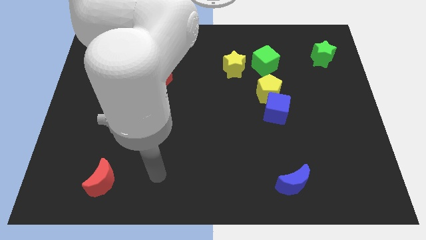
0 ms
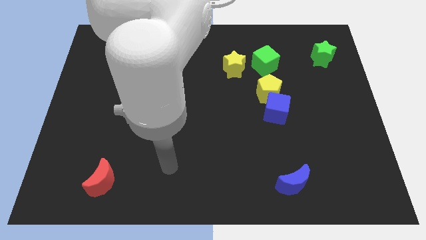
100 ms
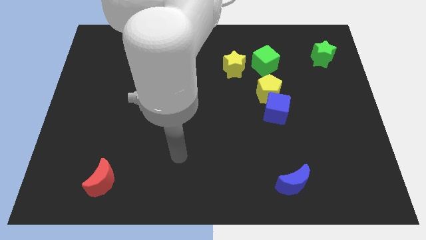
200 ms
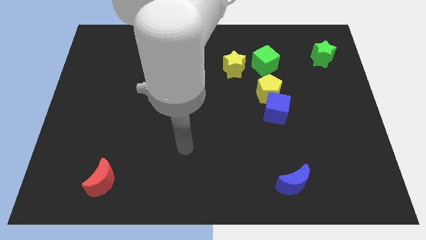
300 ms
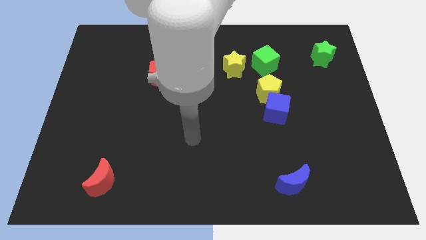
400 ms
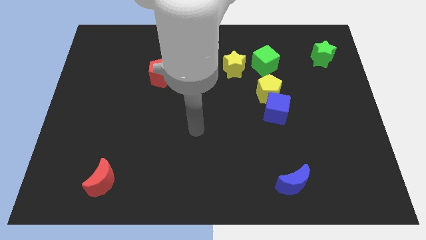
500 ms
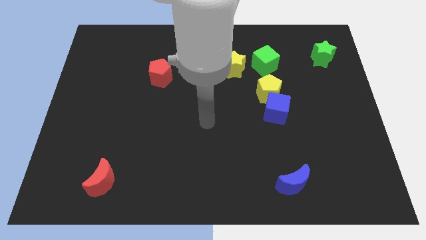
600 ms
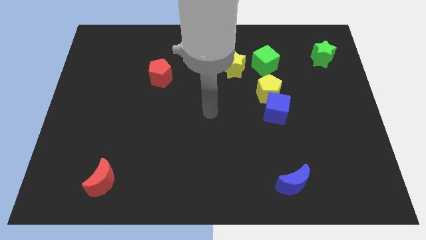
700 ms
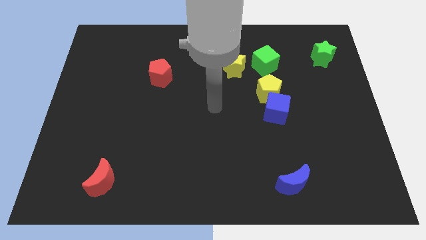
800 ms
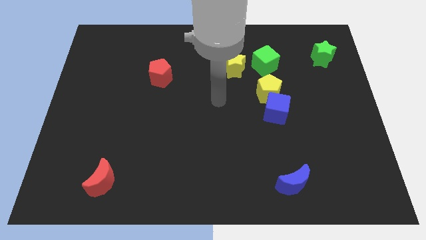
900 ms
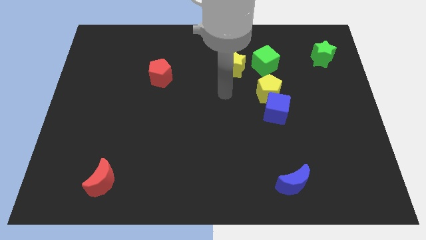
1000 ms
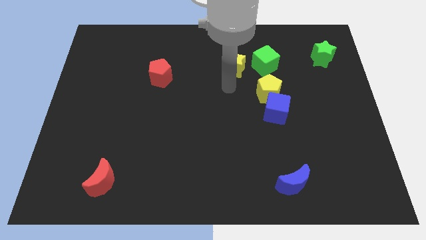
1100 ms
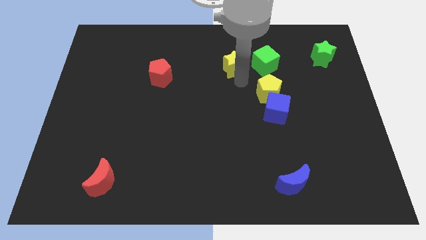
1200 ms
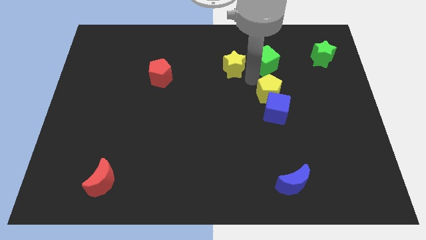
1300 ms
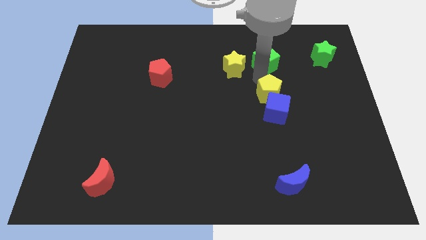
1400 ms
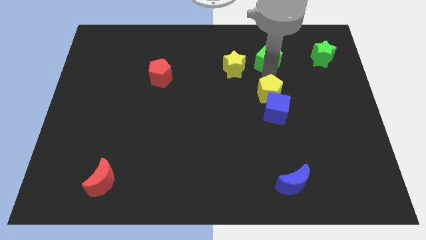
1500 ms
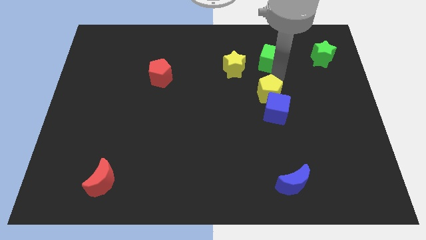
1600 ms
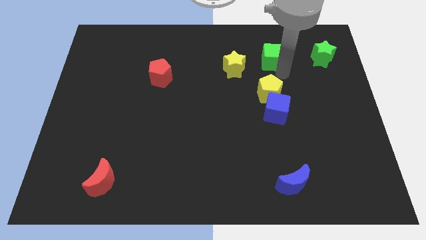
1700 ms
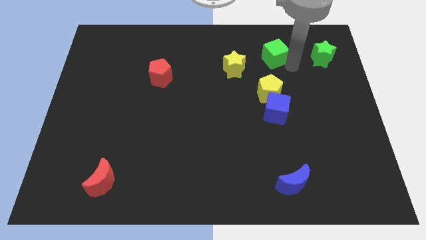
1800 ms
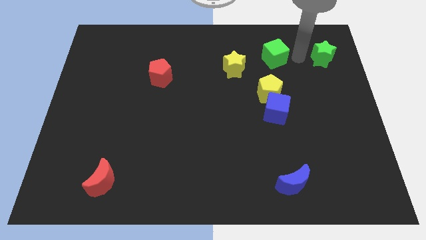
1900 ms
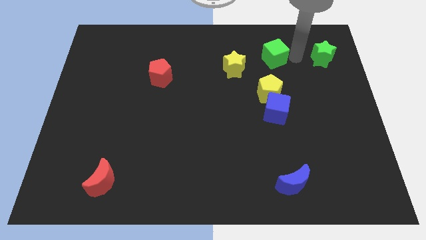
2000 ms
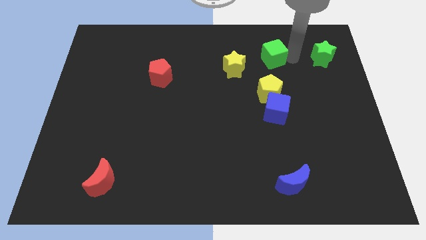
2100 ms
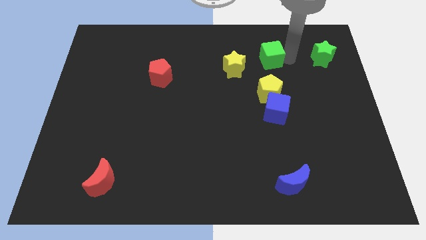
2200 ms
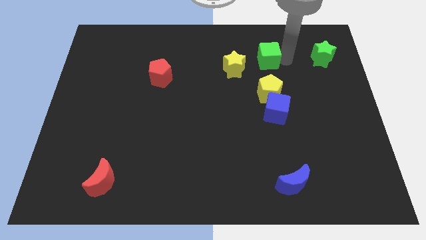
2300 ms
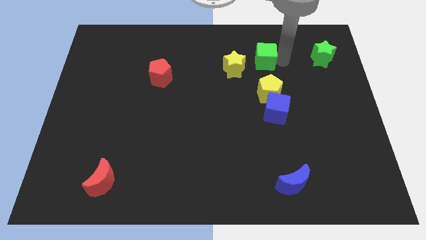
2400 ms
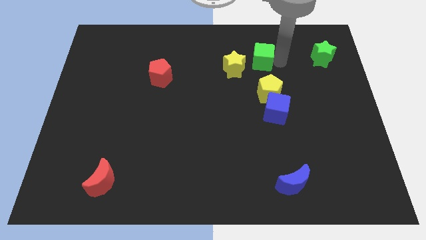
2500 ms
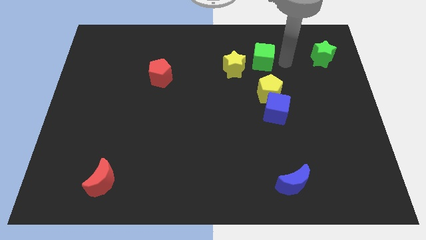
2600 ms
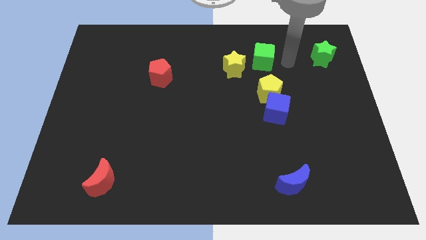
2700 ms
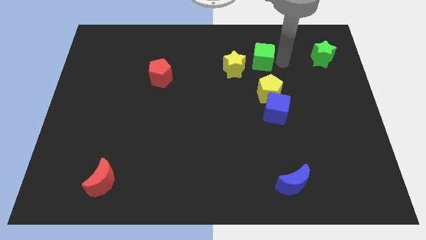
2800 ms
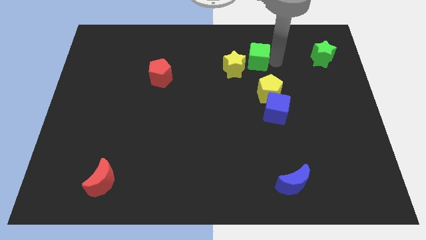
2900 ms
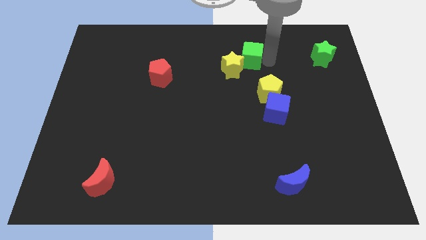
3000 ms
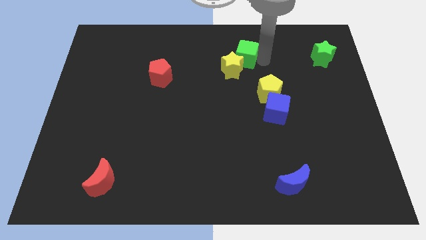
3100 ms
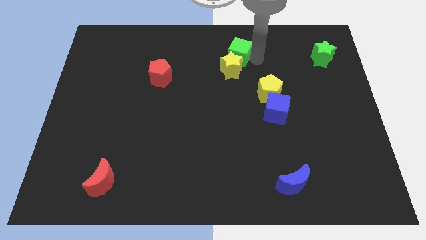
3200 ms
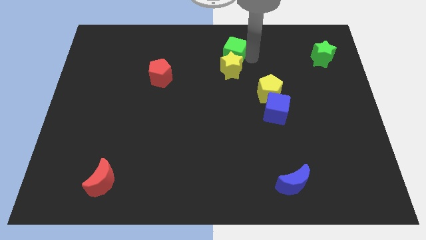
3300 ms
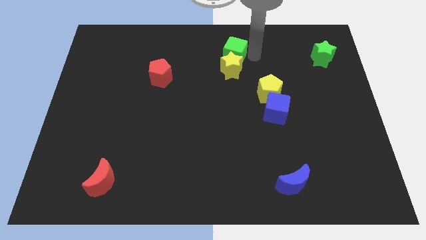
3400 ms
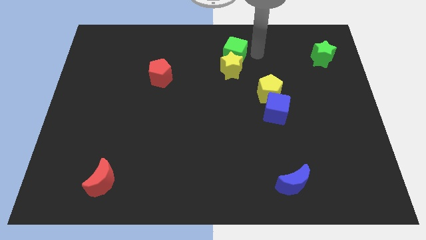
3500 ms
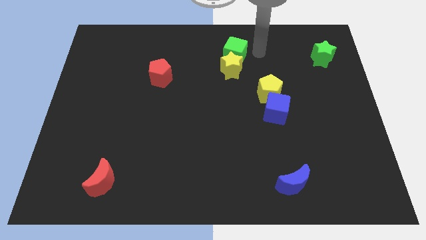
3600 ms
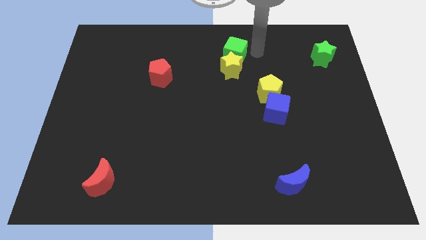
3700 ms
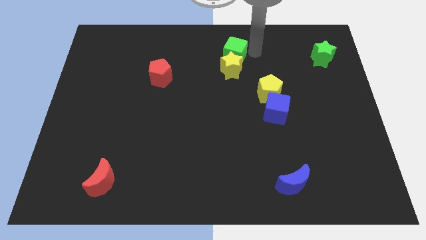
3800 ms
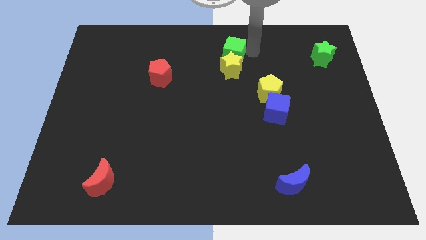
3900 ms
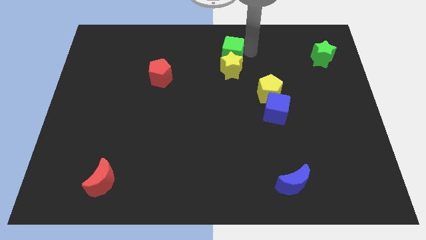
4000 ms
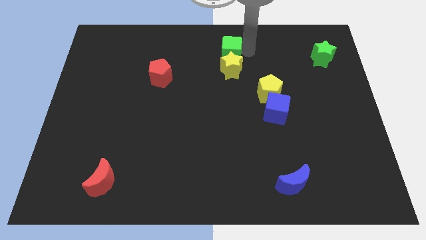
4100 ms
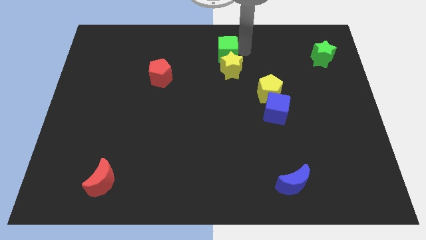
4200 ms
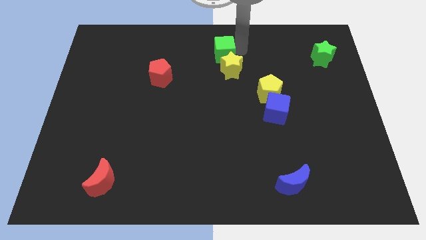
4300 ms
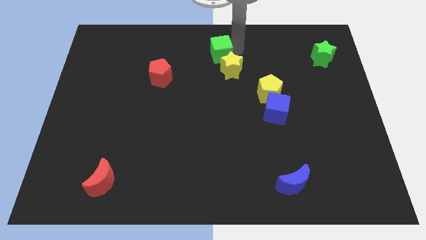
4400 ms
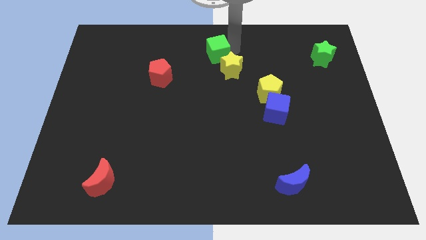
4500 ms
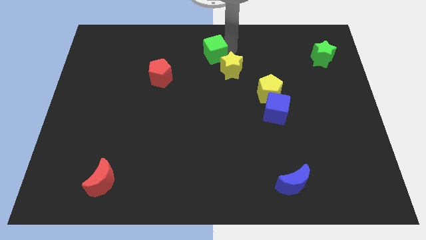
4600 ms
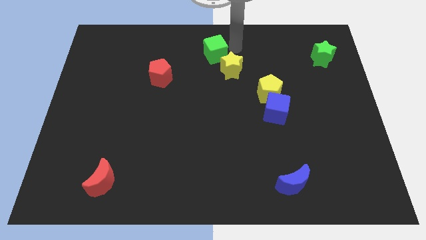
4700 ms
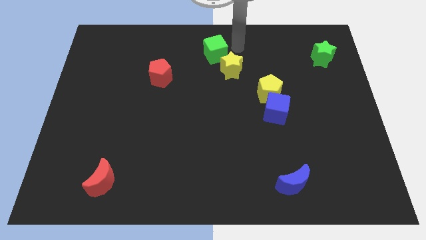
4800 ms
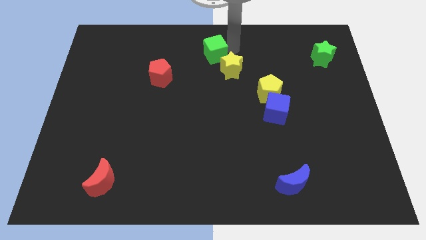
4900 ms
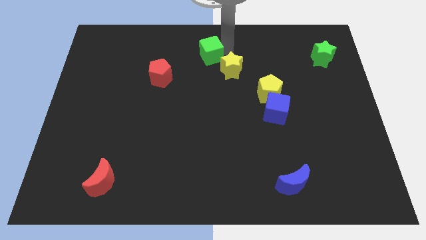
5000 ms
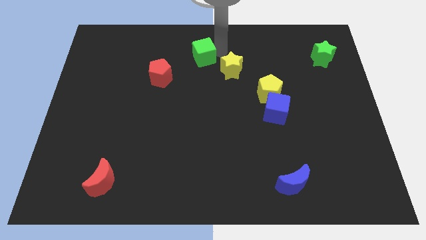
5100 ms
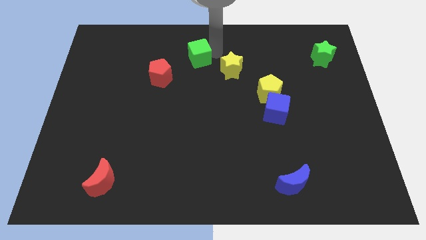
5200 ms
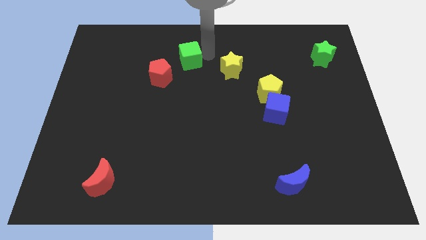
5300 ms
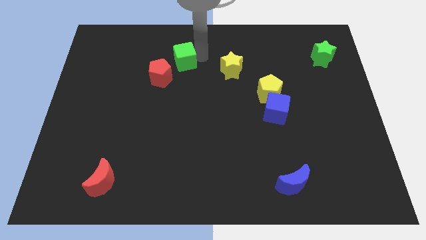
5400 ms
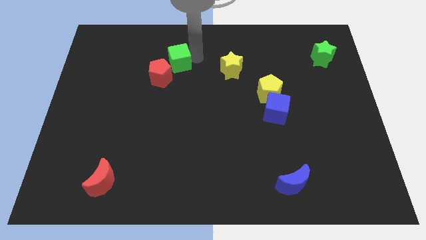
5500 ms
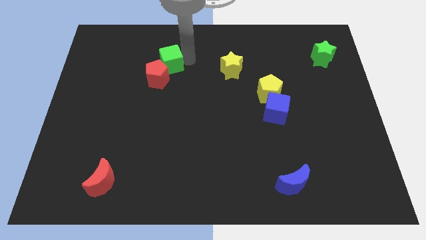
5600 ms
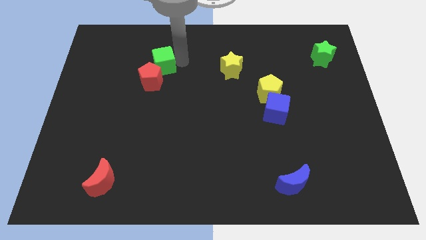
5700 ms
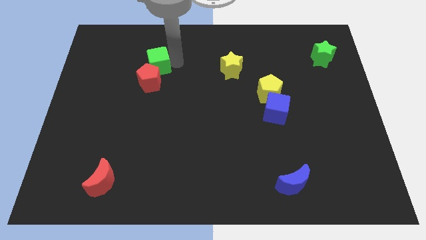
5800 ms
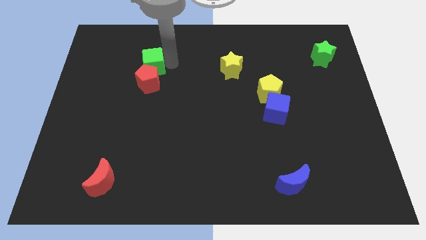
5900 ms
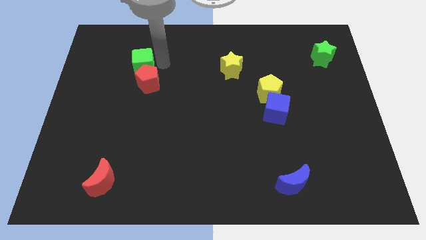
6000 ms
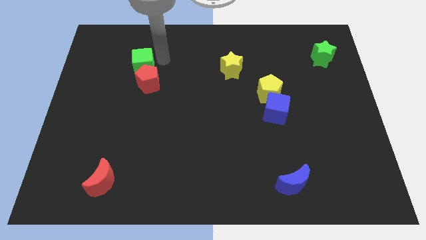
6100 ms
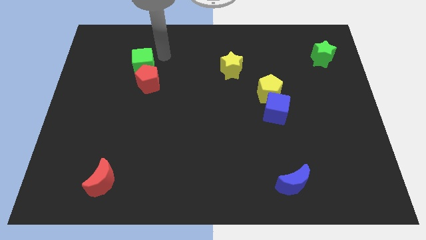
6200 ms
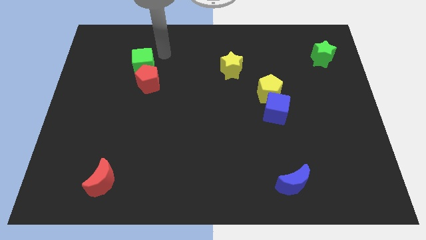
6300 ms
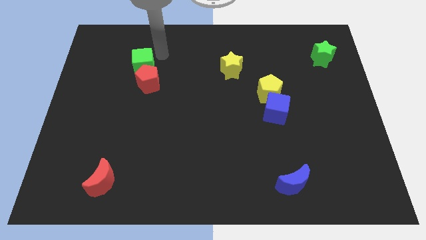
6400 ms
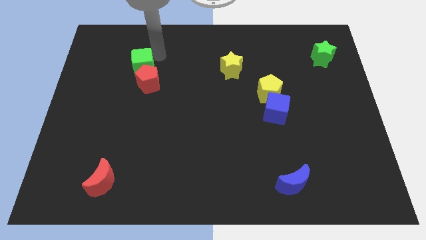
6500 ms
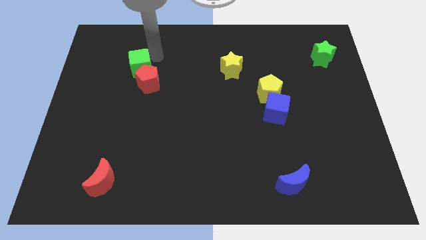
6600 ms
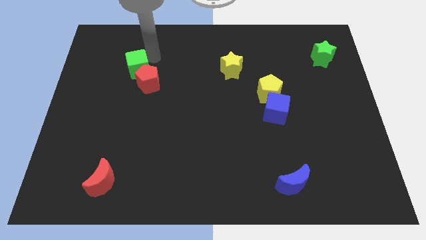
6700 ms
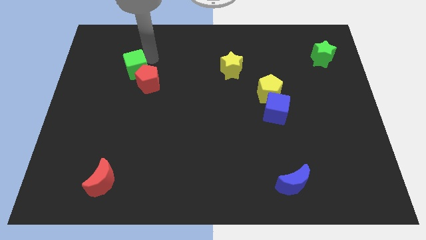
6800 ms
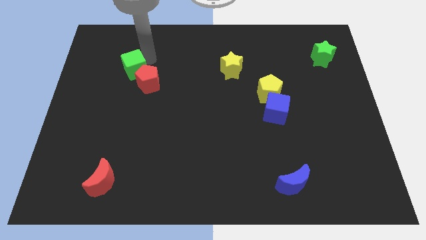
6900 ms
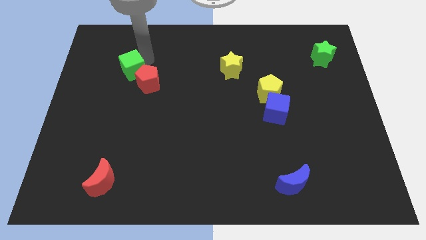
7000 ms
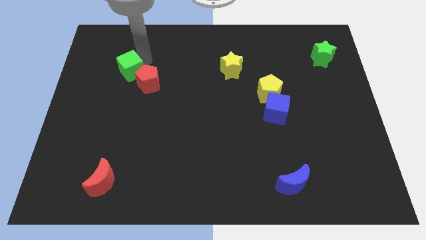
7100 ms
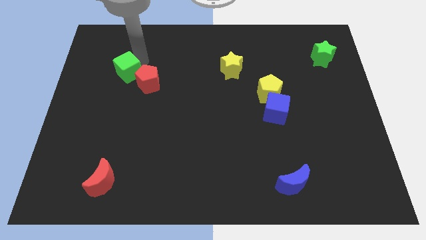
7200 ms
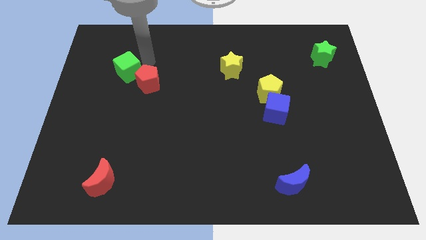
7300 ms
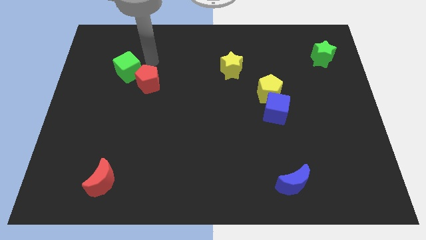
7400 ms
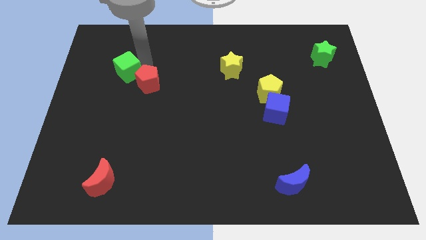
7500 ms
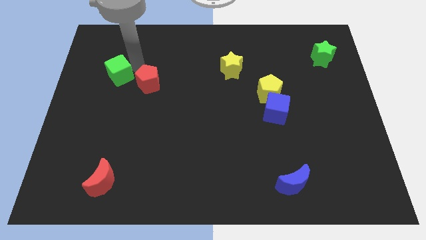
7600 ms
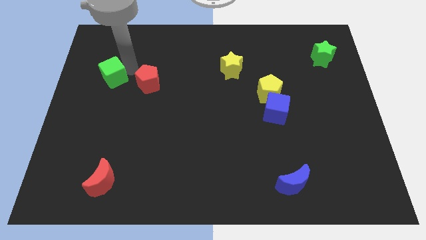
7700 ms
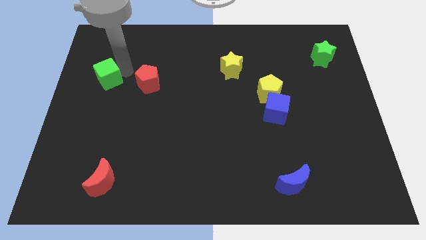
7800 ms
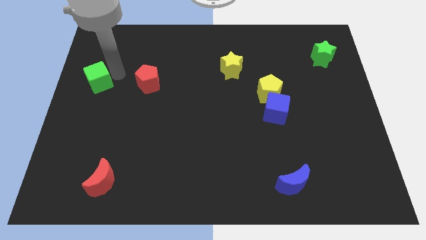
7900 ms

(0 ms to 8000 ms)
push the green cube to the left side of the board
